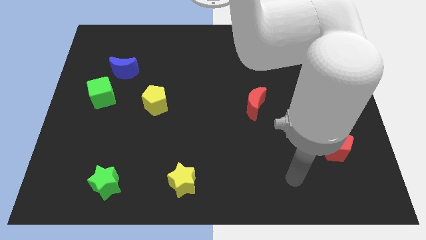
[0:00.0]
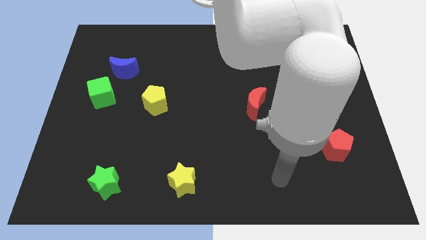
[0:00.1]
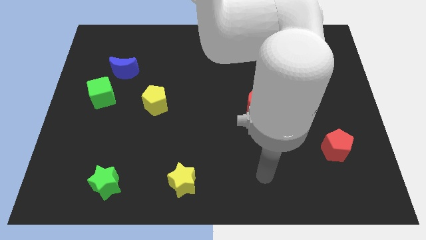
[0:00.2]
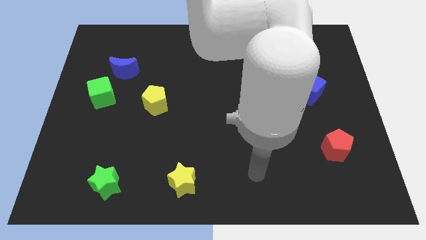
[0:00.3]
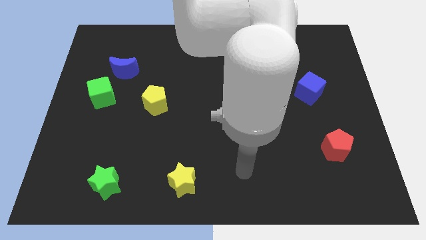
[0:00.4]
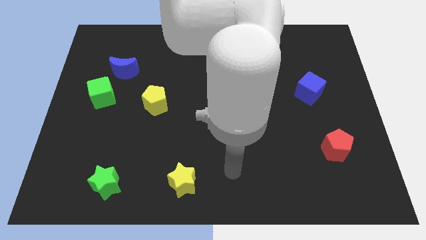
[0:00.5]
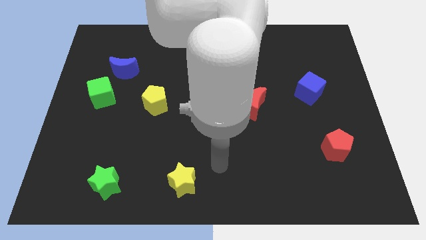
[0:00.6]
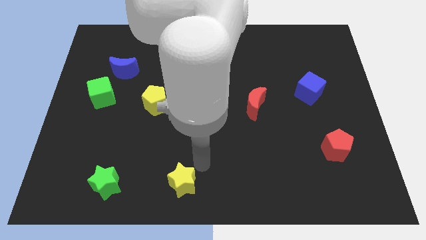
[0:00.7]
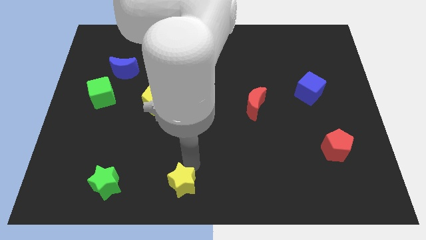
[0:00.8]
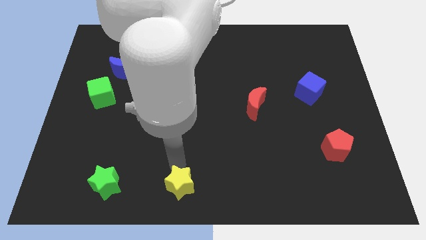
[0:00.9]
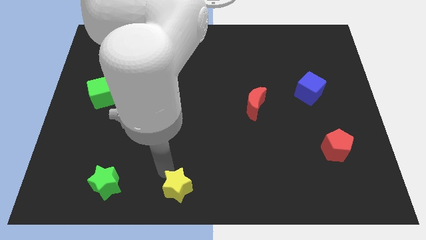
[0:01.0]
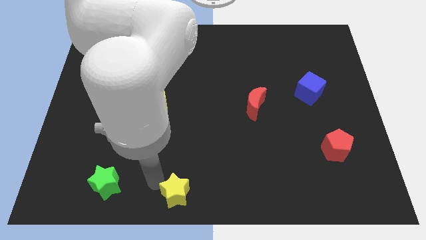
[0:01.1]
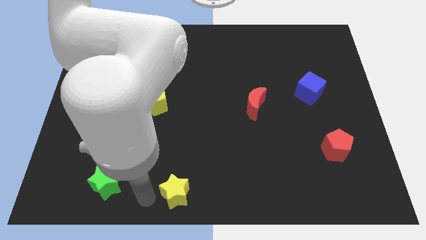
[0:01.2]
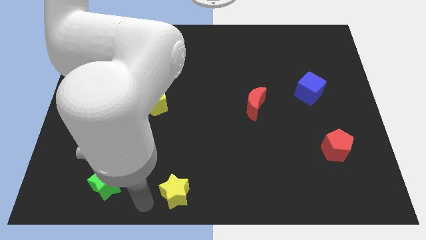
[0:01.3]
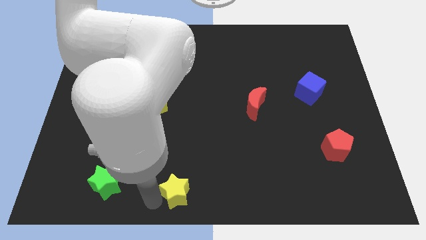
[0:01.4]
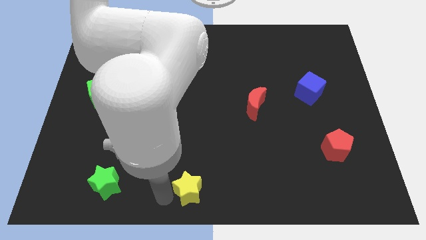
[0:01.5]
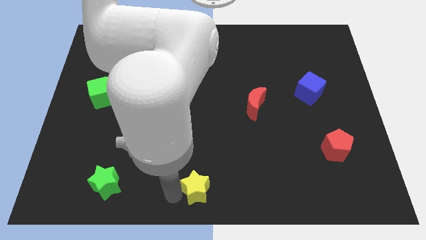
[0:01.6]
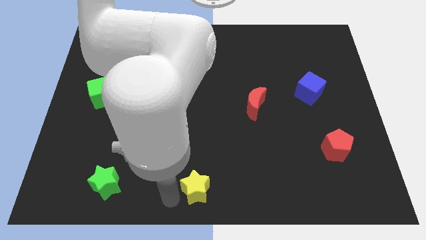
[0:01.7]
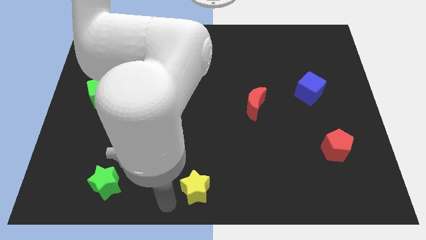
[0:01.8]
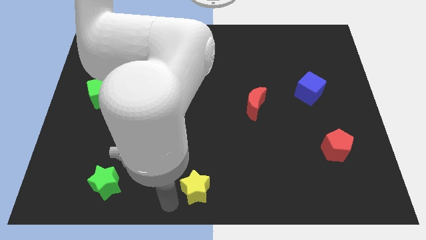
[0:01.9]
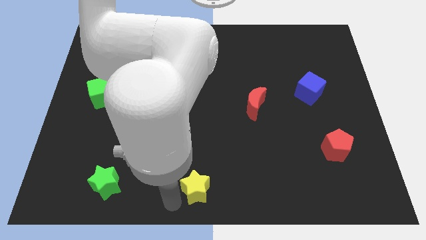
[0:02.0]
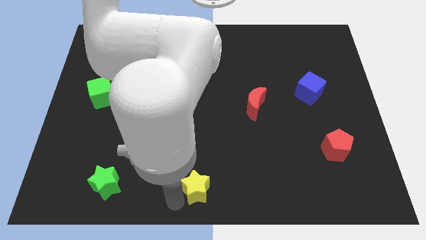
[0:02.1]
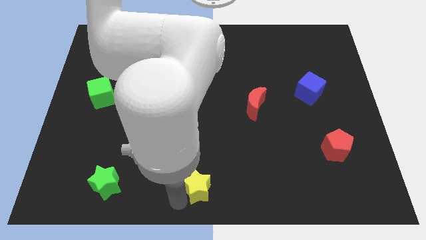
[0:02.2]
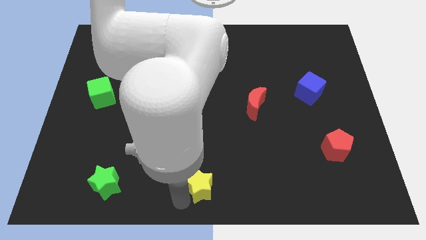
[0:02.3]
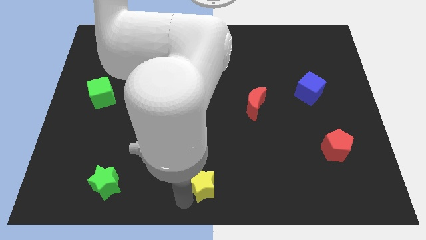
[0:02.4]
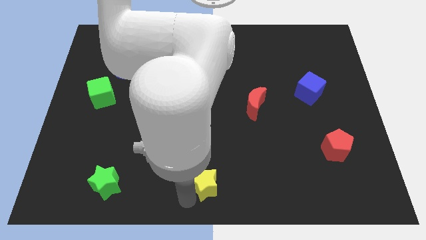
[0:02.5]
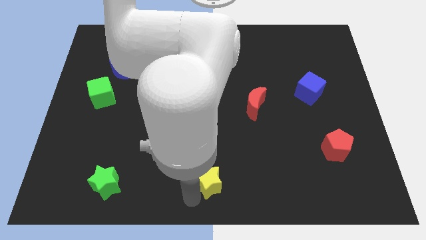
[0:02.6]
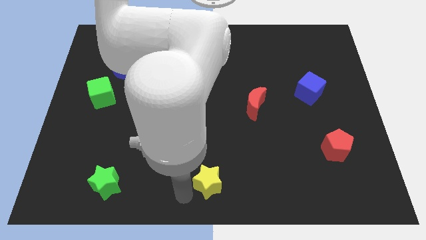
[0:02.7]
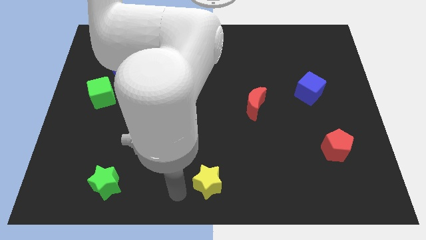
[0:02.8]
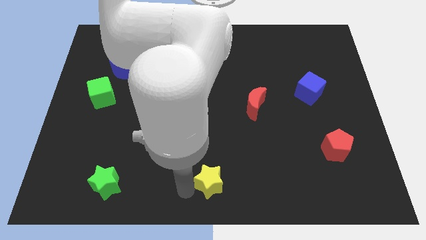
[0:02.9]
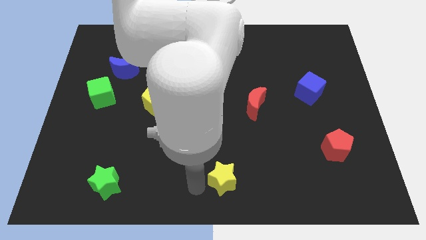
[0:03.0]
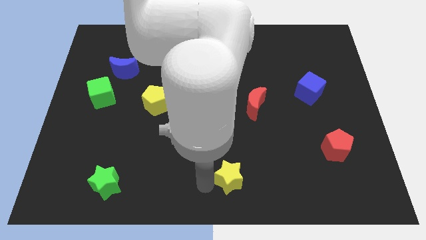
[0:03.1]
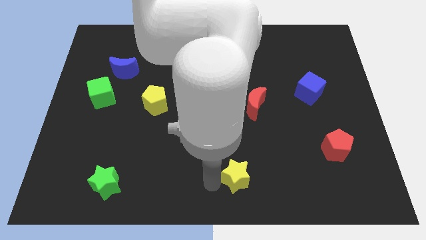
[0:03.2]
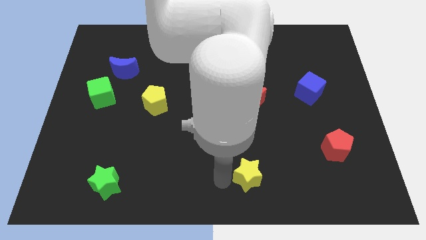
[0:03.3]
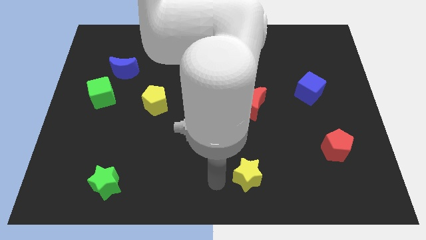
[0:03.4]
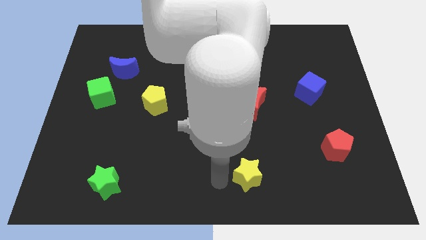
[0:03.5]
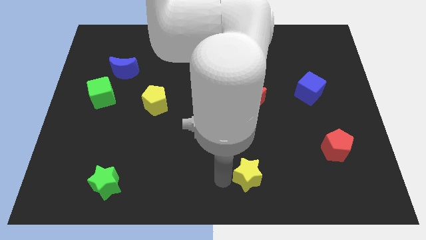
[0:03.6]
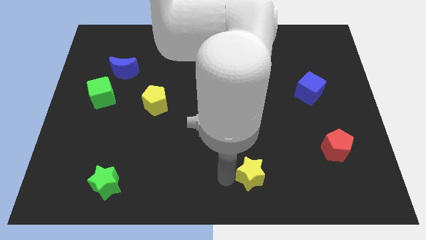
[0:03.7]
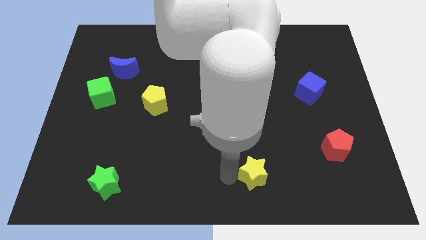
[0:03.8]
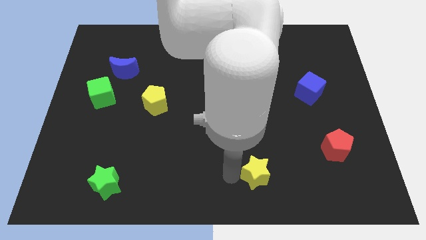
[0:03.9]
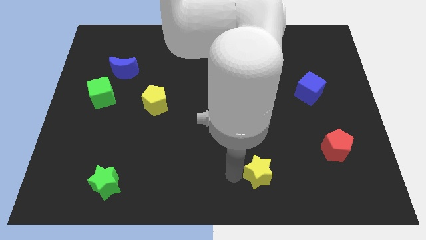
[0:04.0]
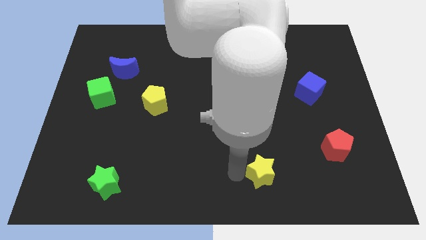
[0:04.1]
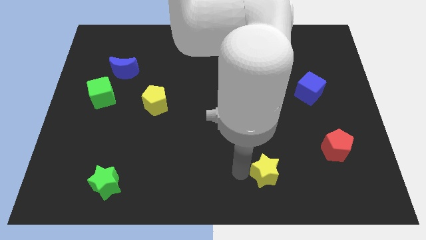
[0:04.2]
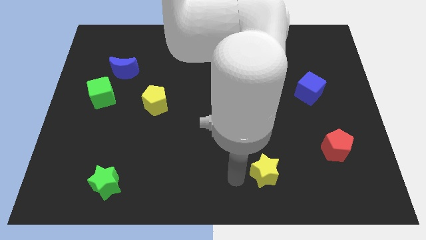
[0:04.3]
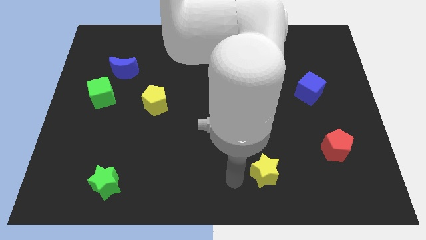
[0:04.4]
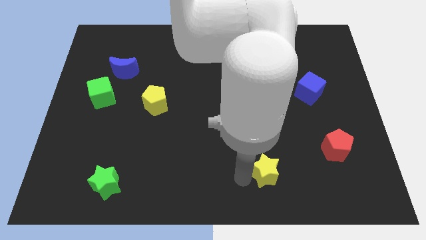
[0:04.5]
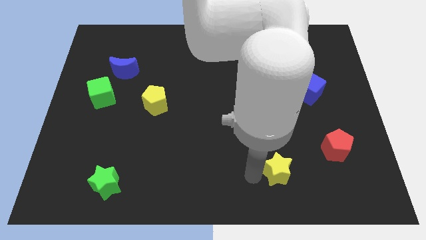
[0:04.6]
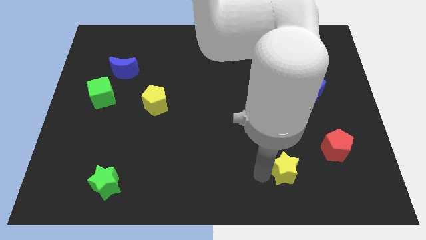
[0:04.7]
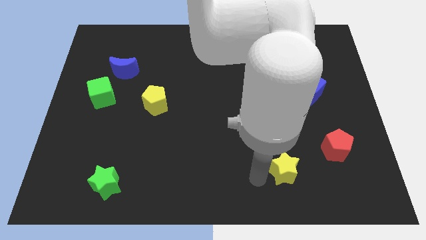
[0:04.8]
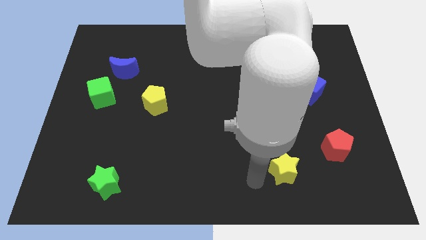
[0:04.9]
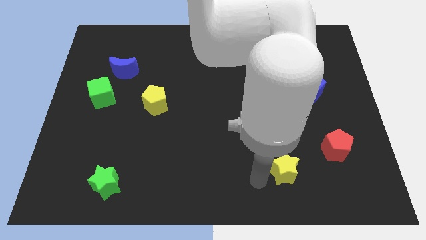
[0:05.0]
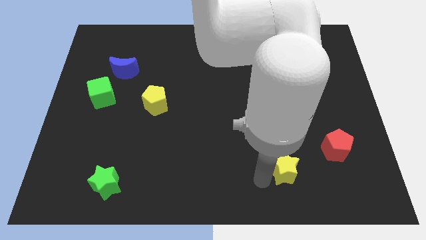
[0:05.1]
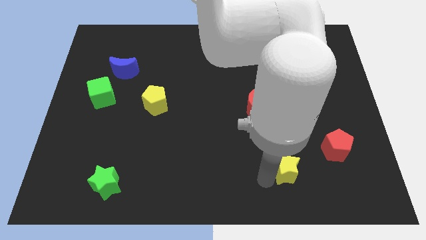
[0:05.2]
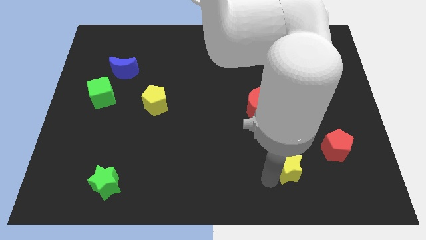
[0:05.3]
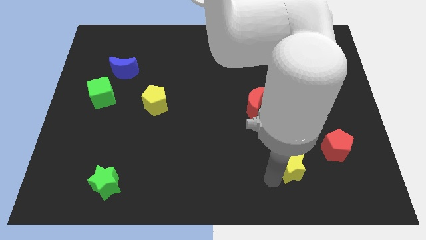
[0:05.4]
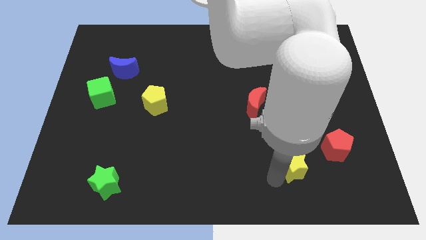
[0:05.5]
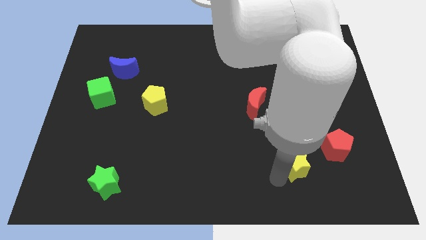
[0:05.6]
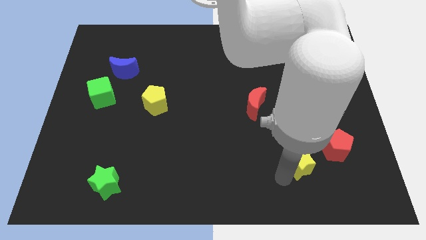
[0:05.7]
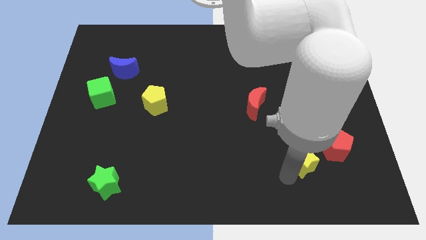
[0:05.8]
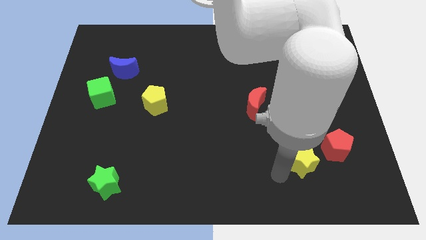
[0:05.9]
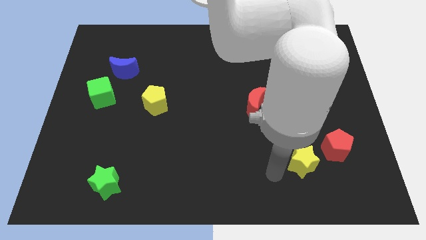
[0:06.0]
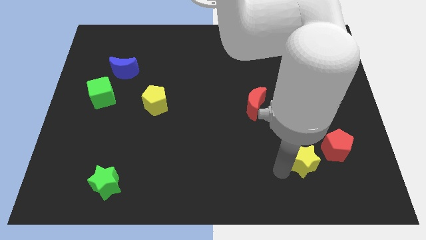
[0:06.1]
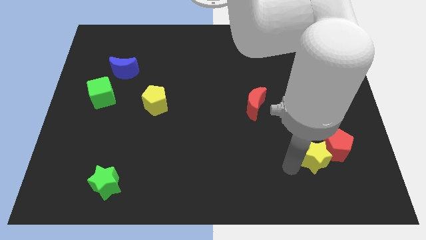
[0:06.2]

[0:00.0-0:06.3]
slide the yellow star to the red pentagon
